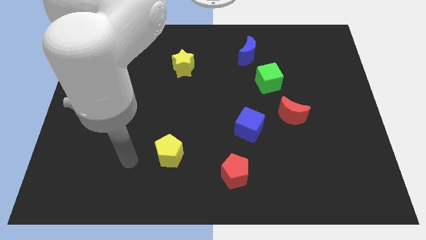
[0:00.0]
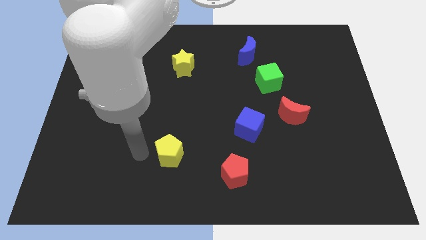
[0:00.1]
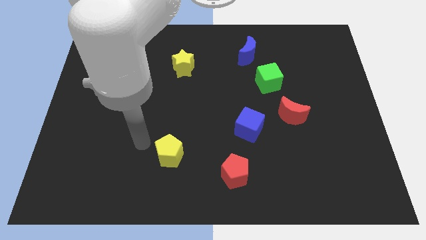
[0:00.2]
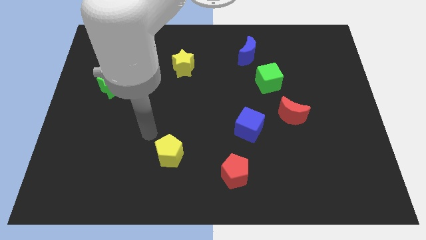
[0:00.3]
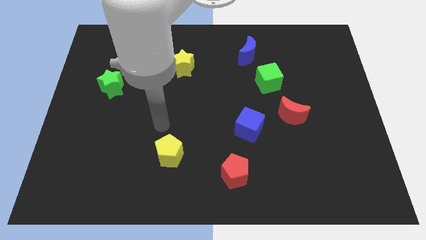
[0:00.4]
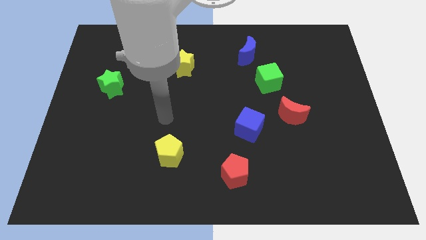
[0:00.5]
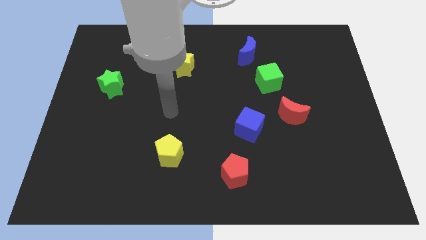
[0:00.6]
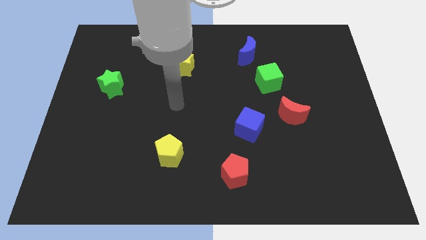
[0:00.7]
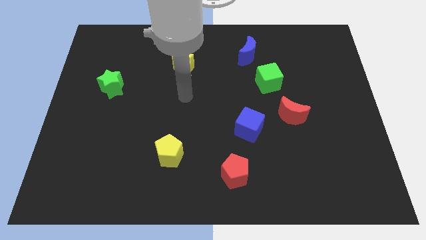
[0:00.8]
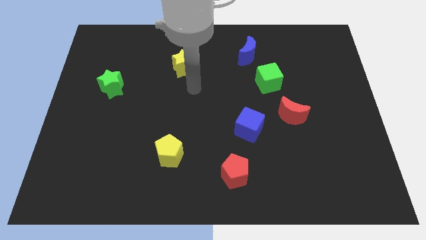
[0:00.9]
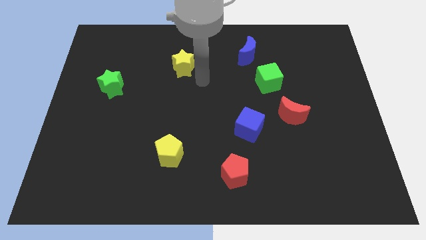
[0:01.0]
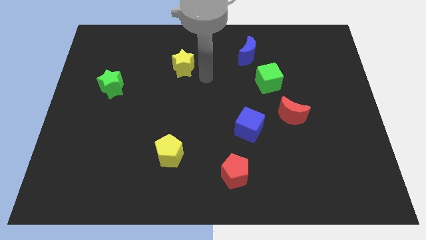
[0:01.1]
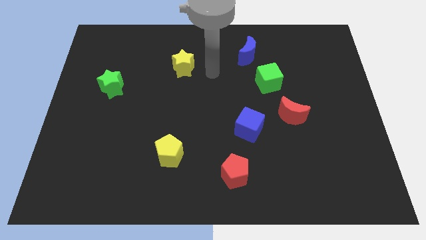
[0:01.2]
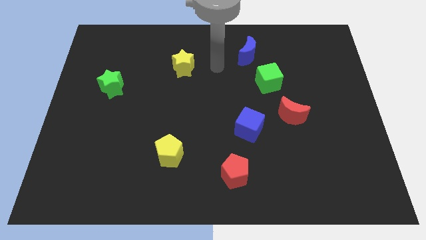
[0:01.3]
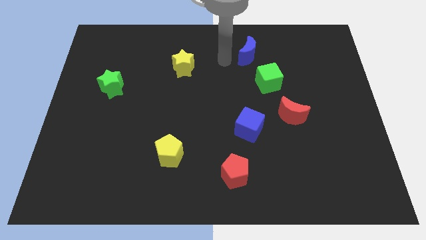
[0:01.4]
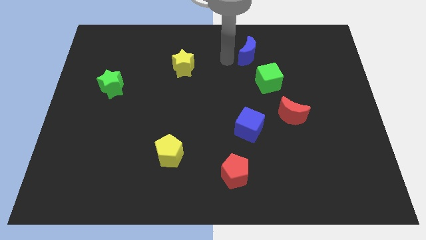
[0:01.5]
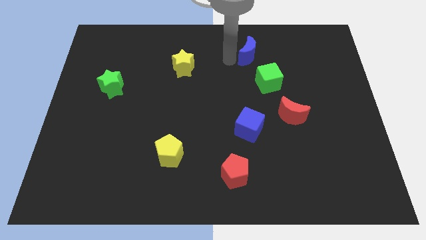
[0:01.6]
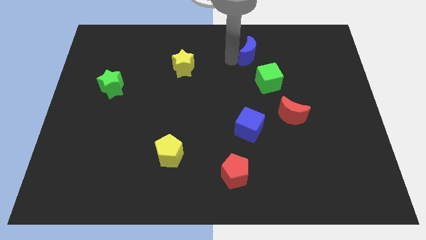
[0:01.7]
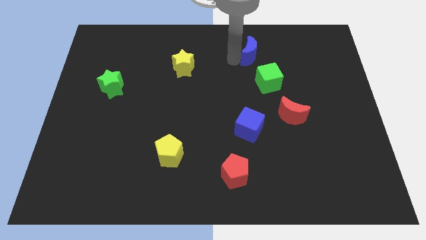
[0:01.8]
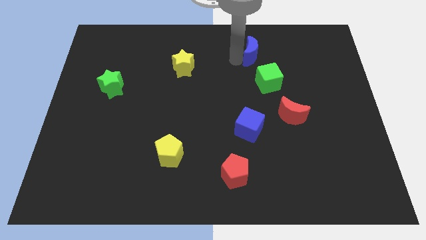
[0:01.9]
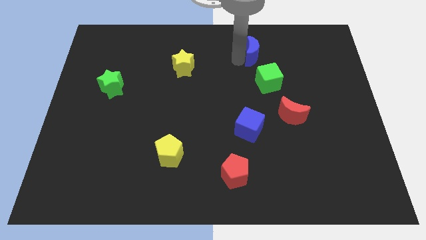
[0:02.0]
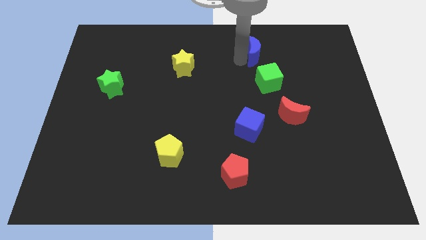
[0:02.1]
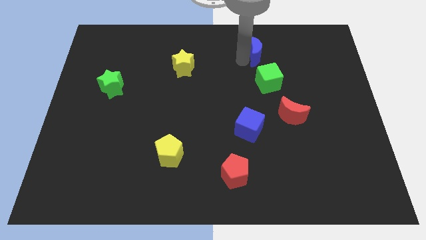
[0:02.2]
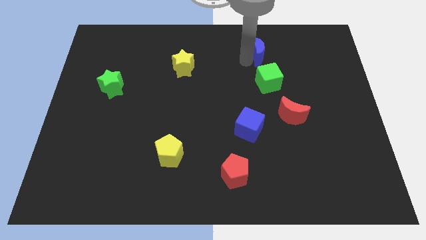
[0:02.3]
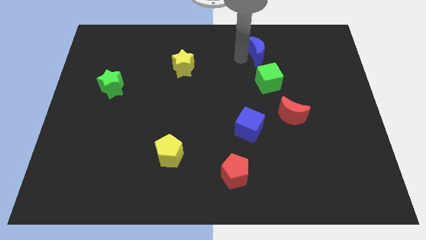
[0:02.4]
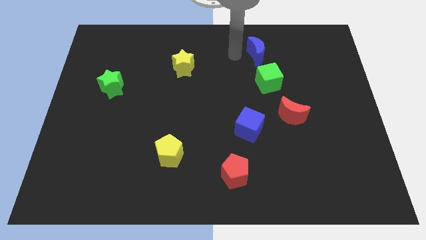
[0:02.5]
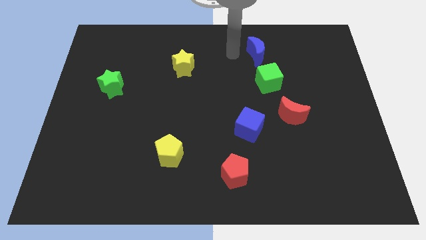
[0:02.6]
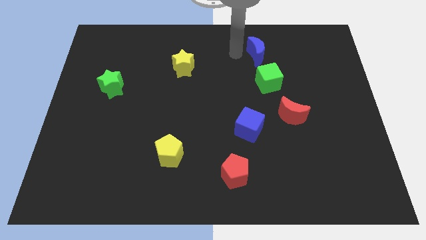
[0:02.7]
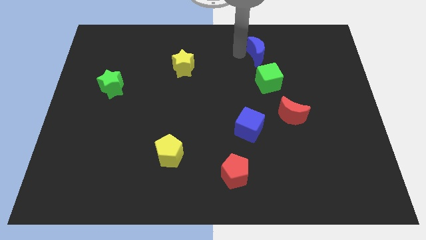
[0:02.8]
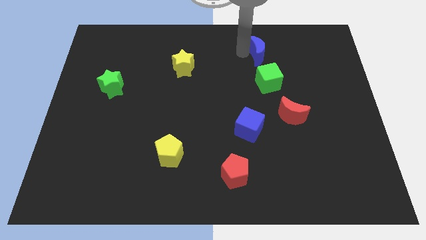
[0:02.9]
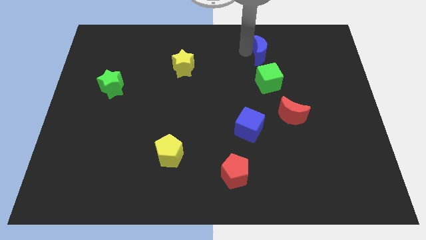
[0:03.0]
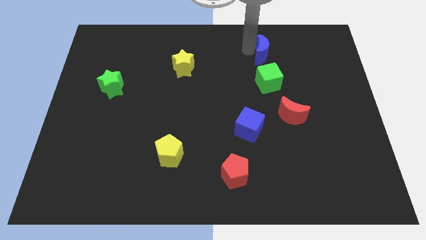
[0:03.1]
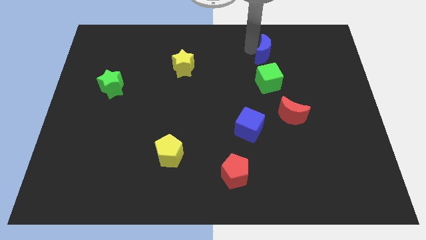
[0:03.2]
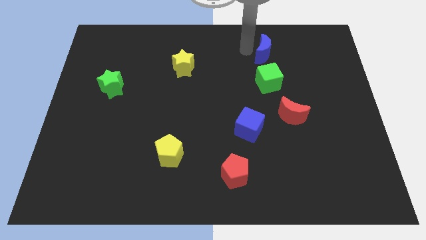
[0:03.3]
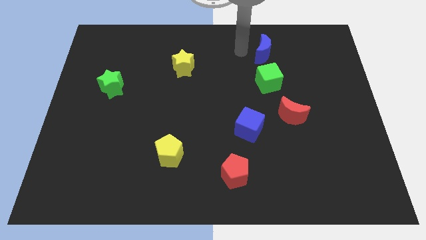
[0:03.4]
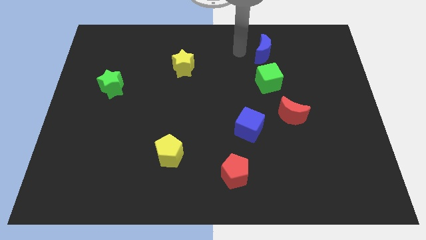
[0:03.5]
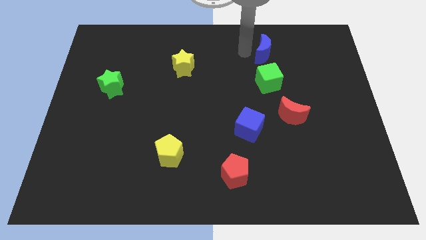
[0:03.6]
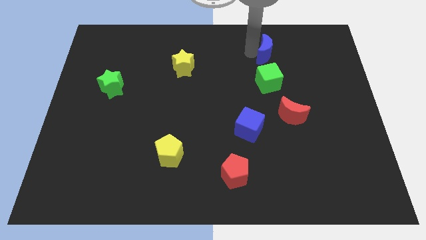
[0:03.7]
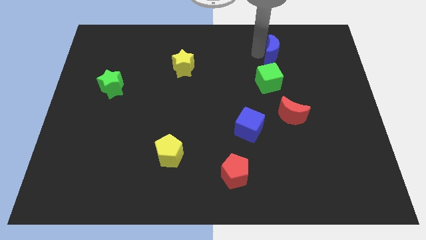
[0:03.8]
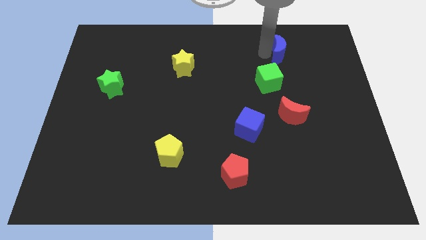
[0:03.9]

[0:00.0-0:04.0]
move the blue moon somewhat right

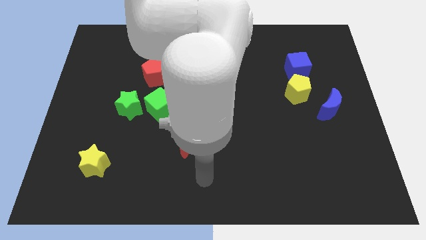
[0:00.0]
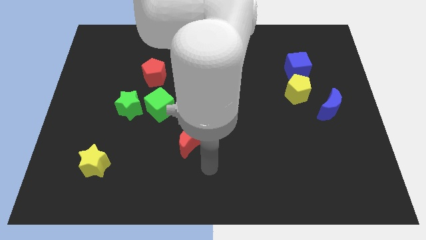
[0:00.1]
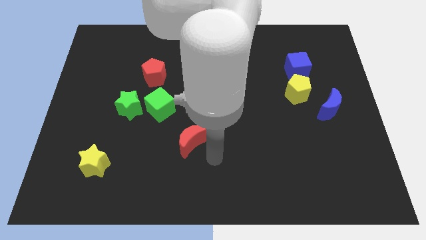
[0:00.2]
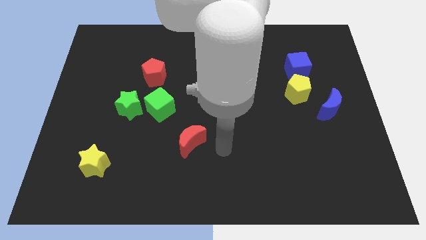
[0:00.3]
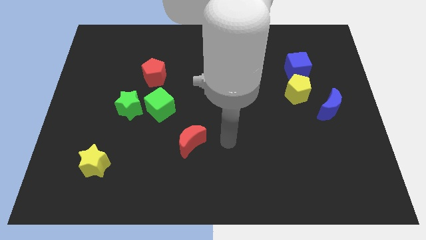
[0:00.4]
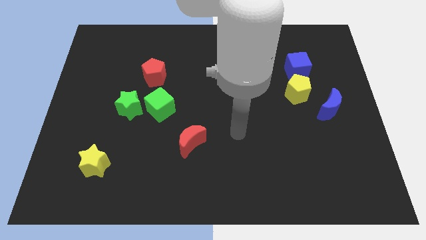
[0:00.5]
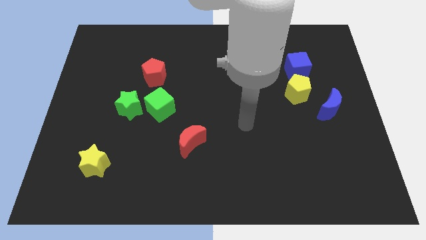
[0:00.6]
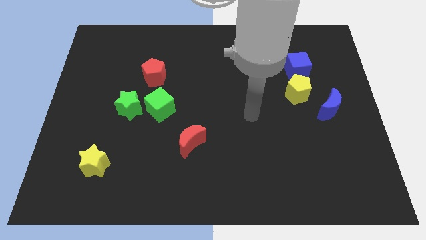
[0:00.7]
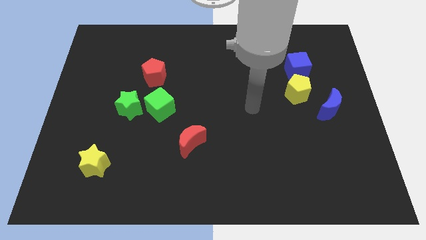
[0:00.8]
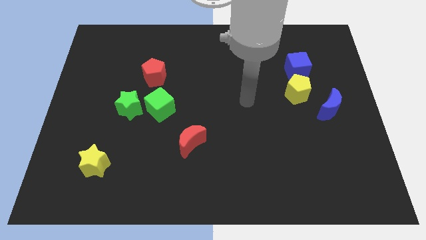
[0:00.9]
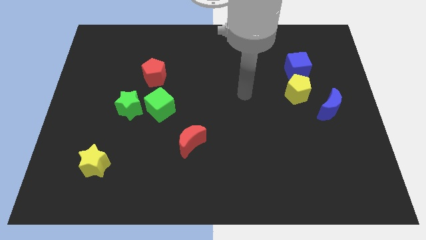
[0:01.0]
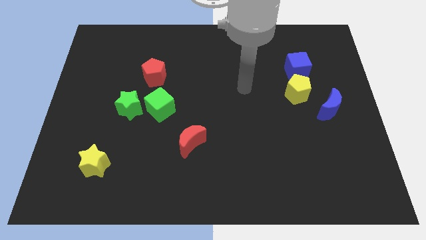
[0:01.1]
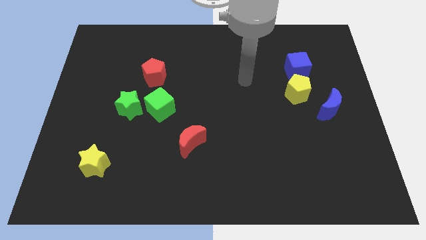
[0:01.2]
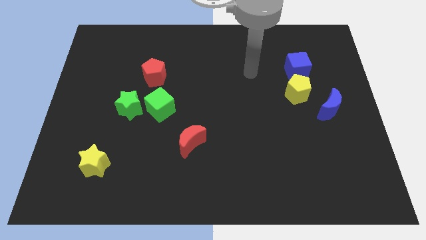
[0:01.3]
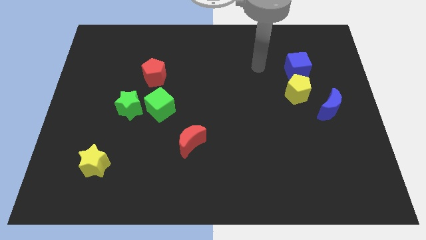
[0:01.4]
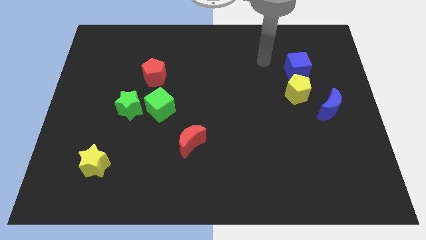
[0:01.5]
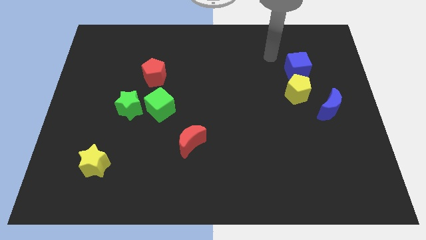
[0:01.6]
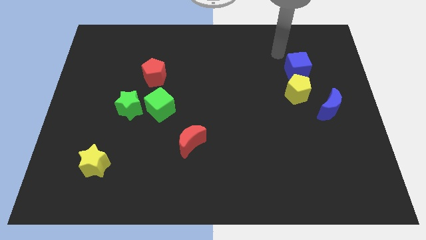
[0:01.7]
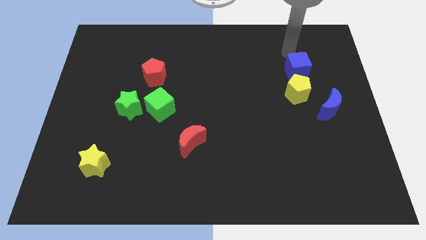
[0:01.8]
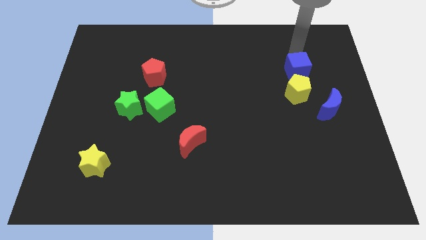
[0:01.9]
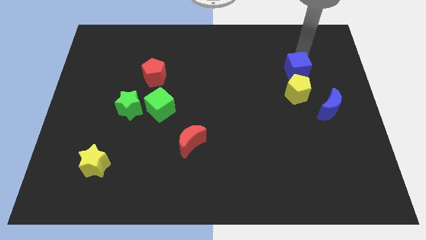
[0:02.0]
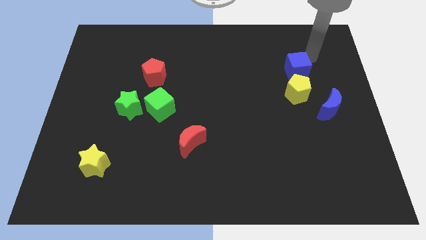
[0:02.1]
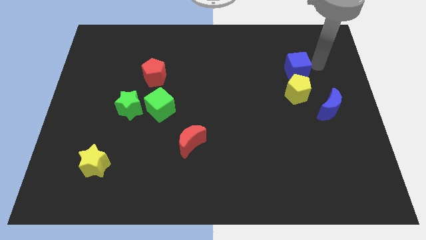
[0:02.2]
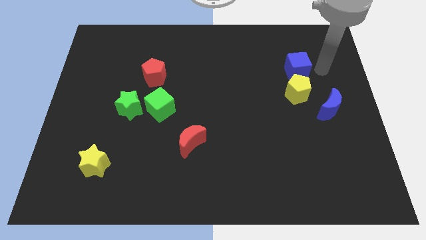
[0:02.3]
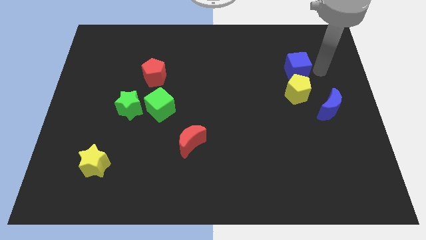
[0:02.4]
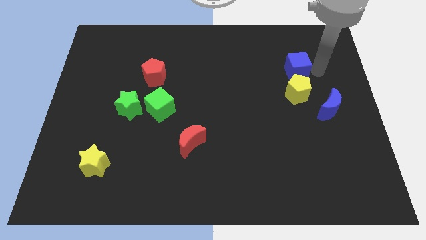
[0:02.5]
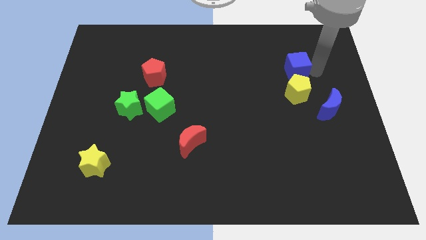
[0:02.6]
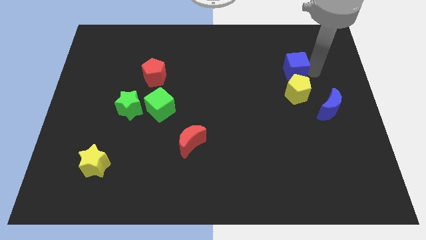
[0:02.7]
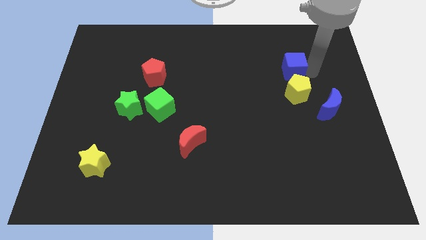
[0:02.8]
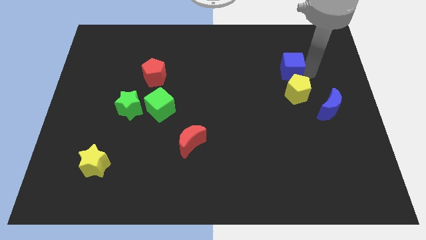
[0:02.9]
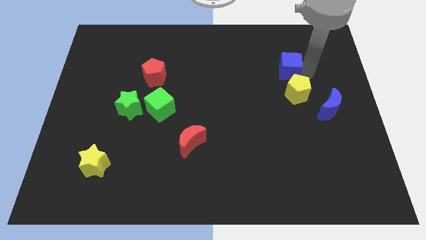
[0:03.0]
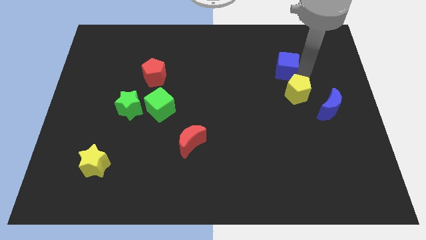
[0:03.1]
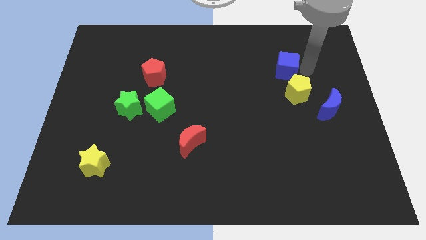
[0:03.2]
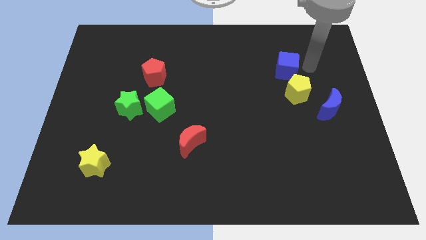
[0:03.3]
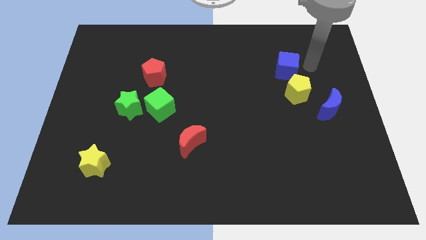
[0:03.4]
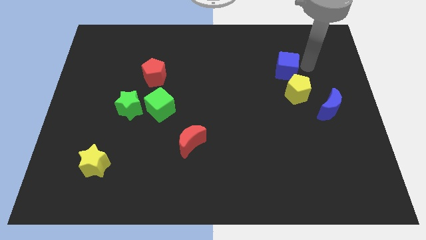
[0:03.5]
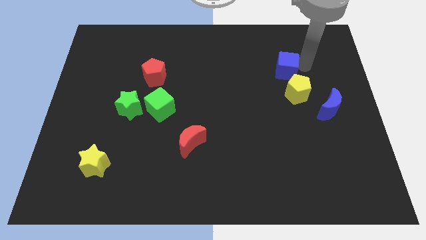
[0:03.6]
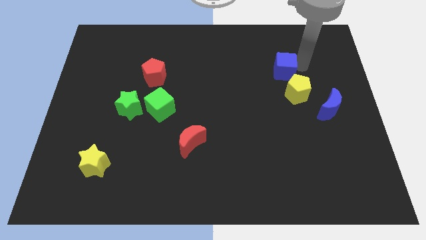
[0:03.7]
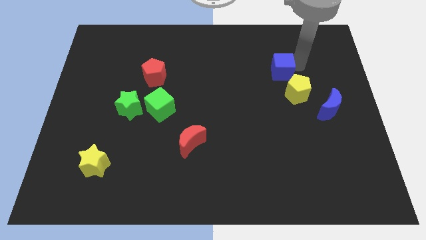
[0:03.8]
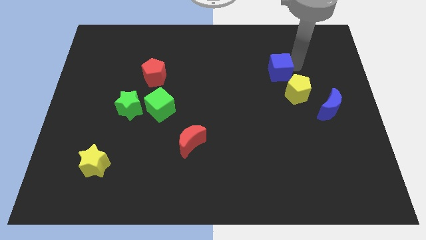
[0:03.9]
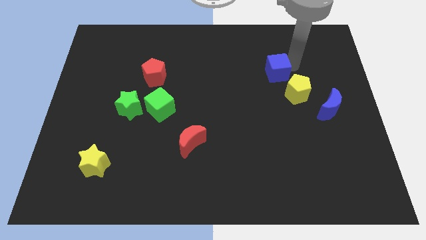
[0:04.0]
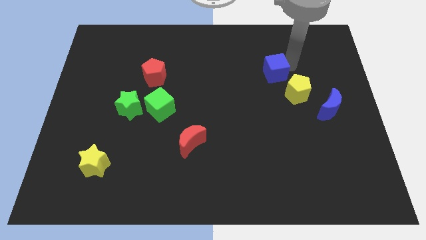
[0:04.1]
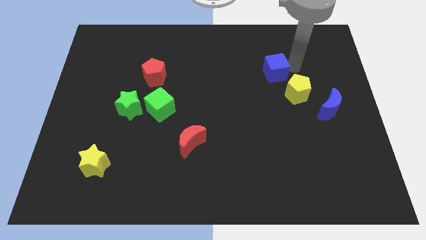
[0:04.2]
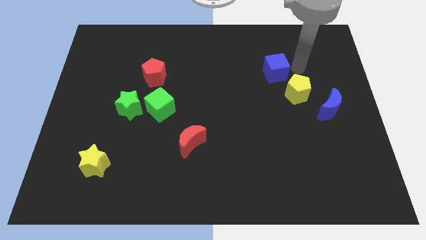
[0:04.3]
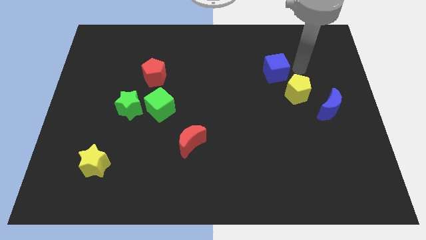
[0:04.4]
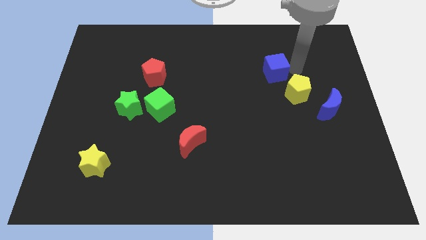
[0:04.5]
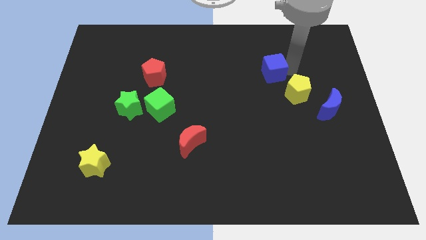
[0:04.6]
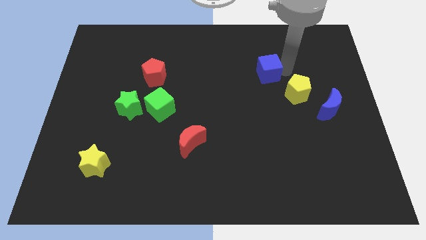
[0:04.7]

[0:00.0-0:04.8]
slide the blue cube a bit to the left
